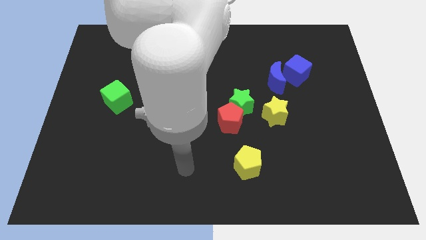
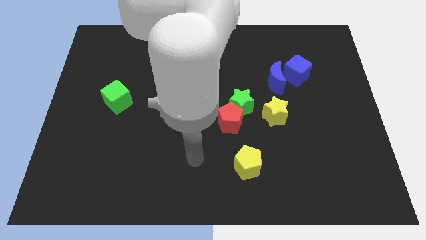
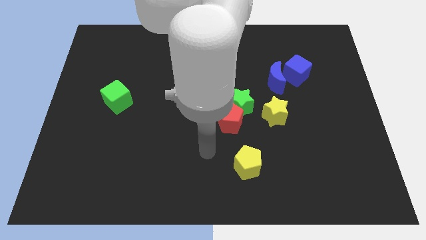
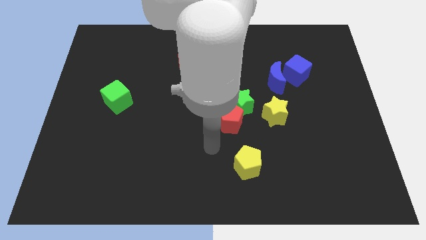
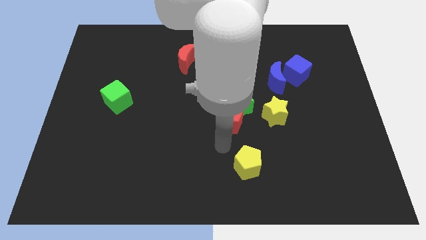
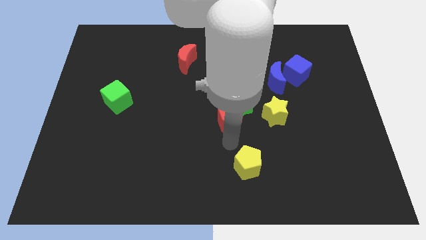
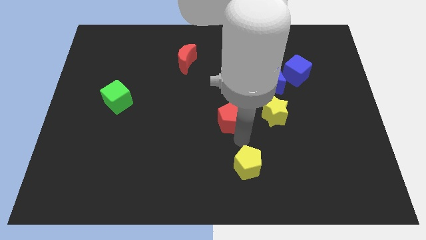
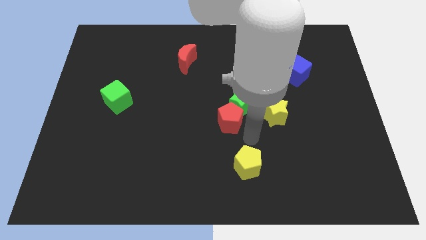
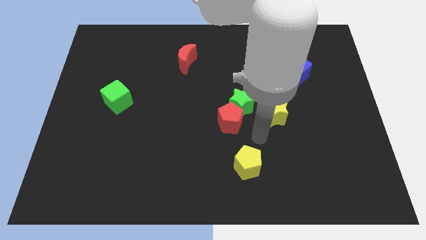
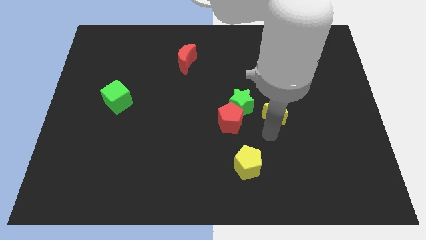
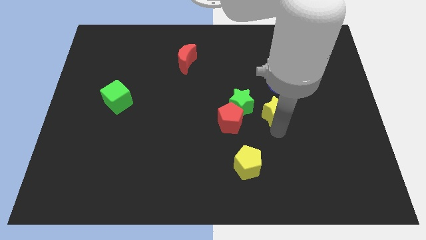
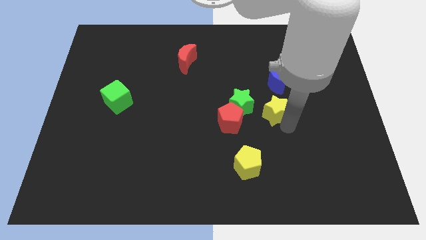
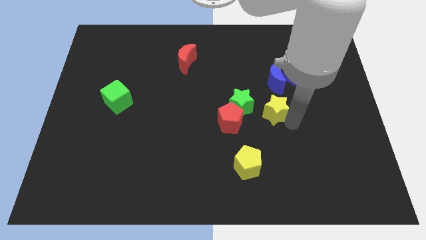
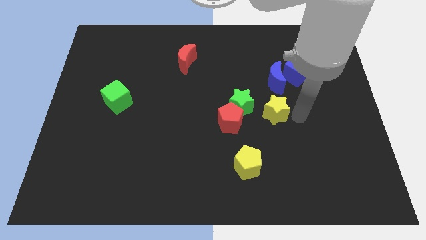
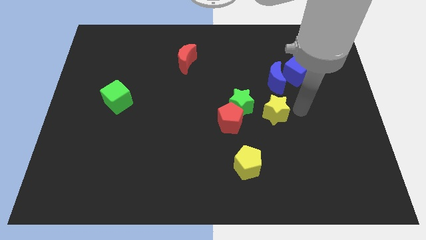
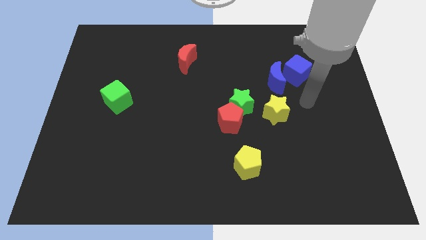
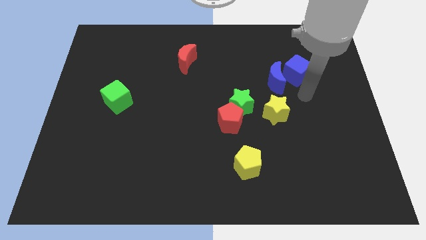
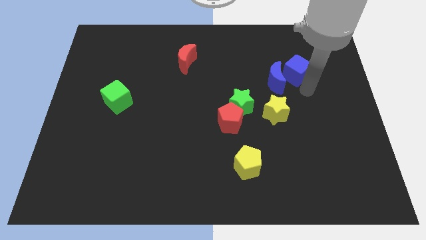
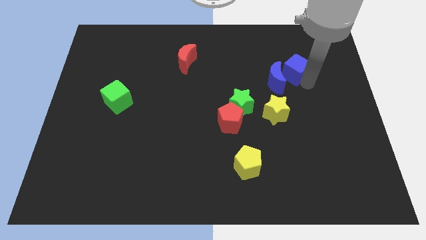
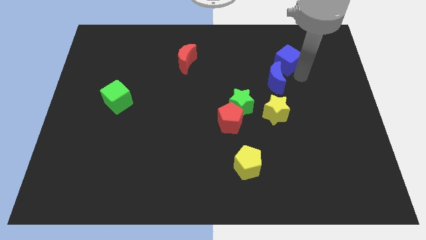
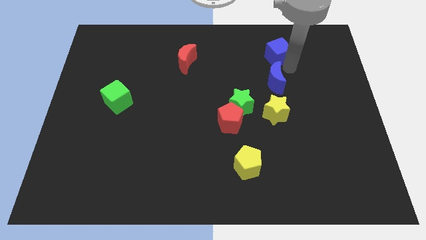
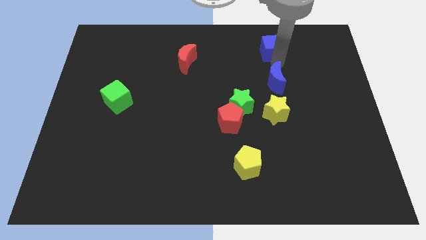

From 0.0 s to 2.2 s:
move the blue moon away from the blue cube

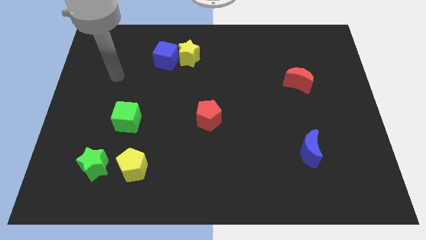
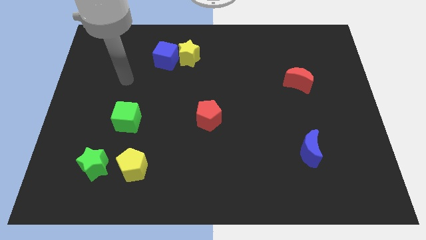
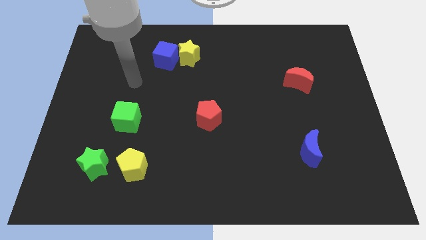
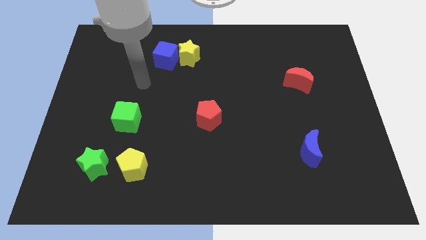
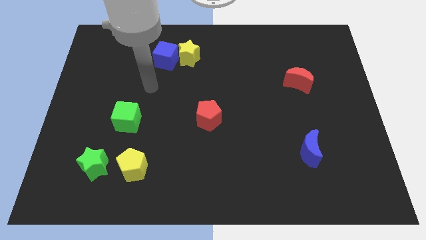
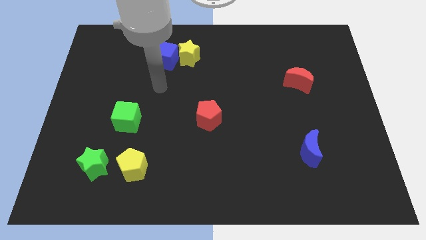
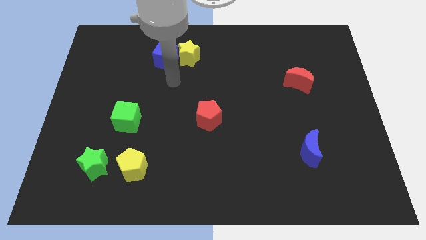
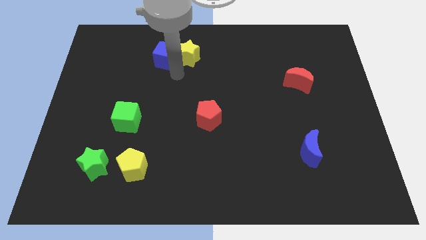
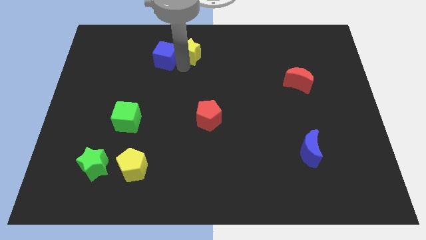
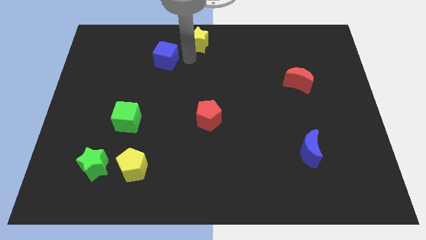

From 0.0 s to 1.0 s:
pull the blue cube apart from the yellow star

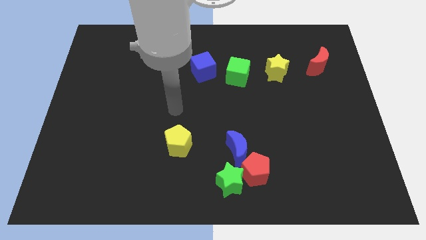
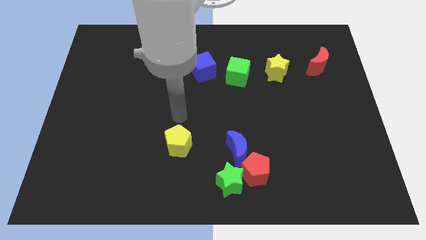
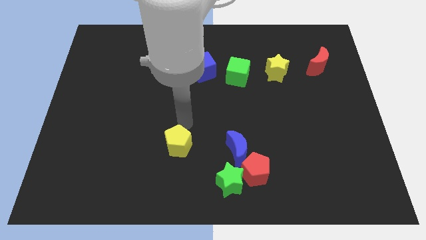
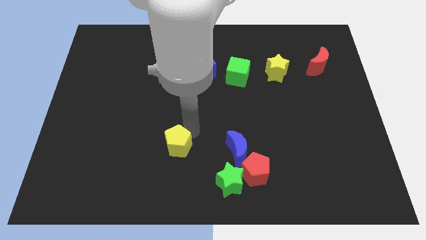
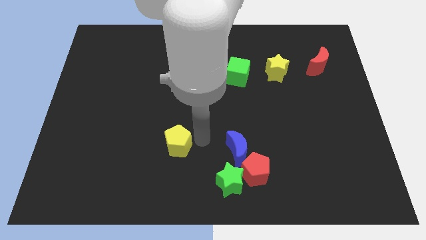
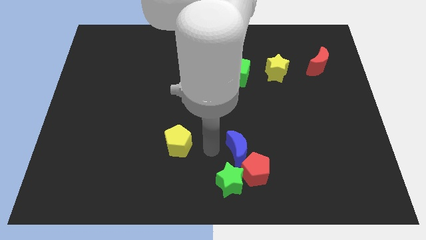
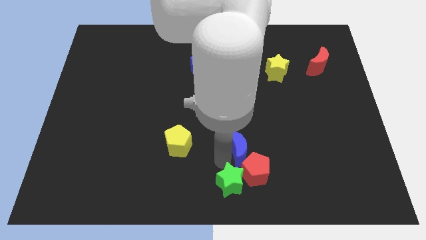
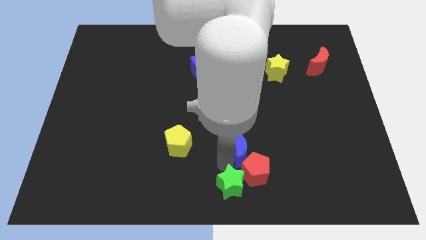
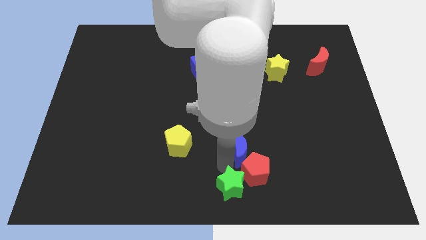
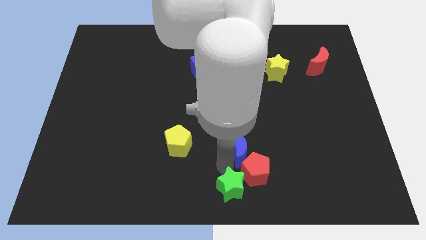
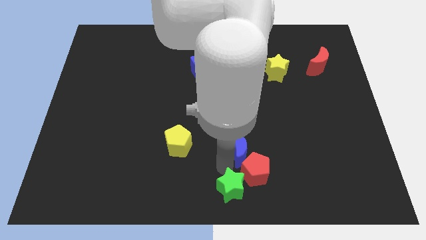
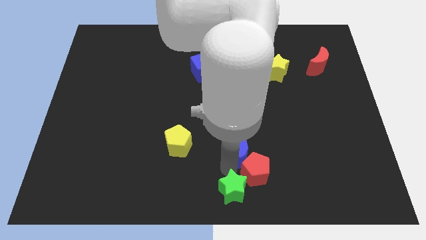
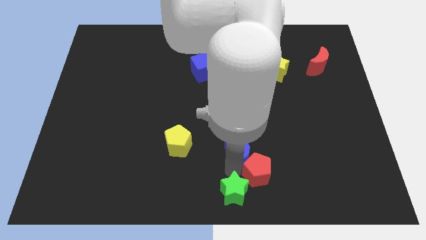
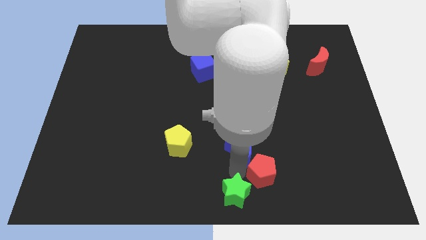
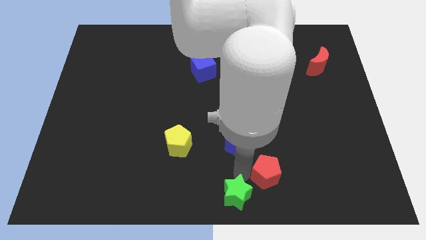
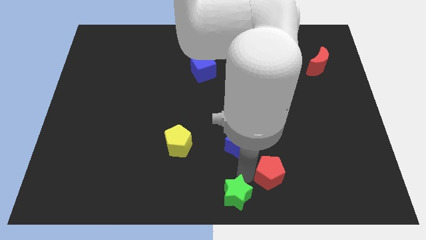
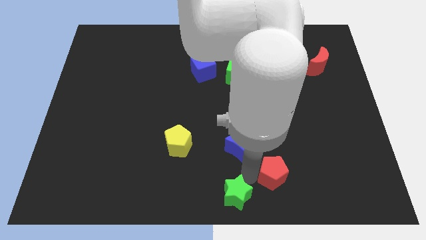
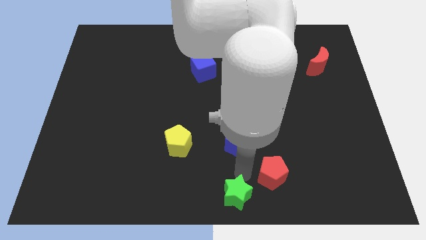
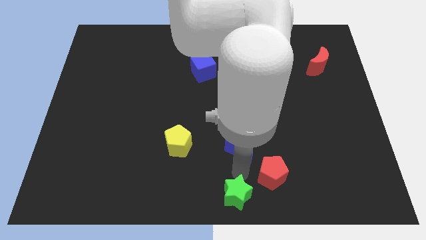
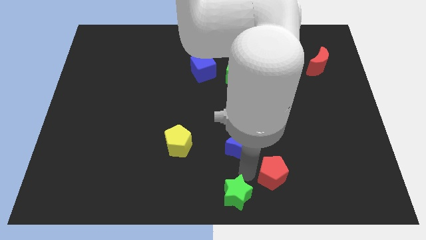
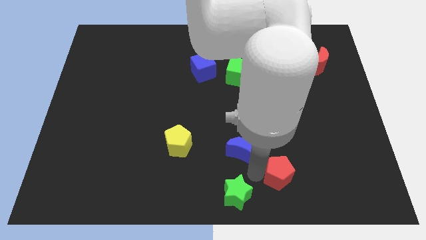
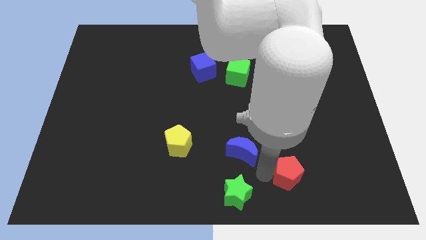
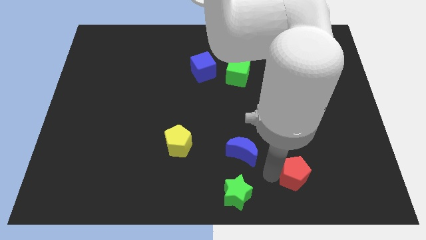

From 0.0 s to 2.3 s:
move the red pentagon away from the blue moon and green star

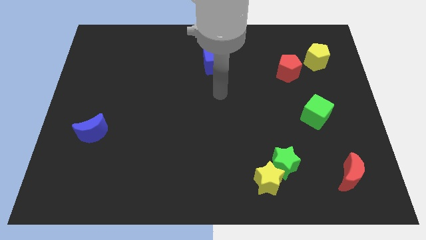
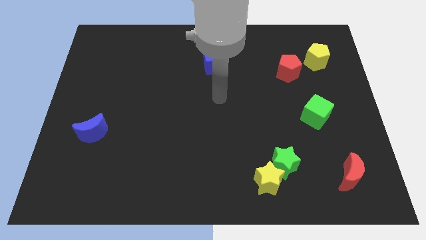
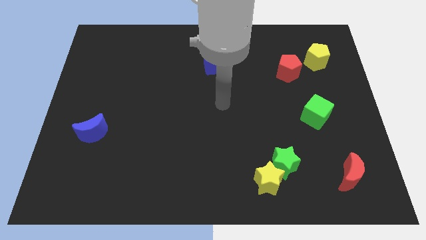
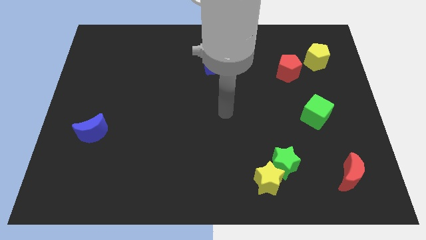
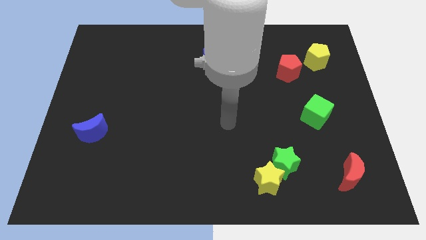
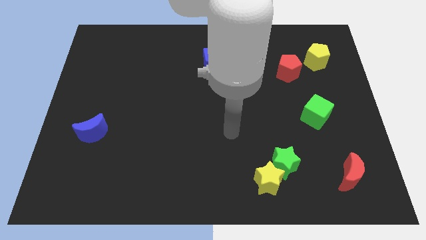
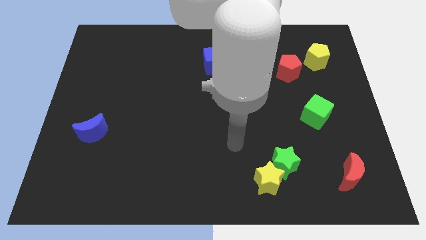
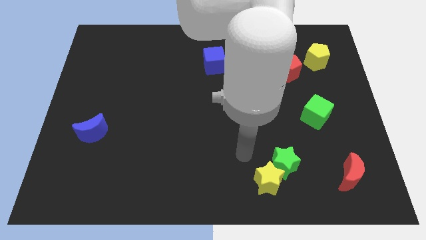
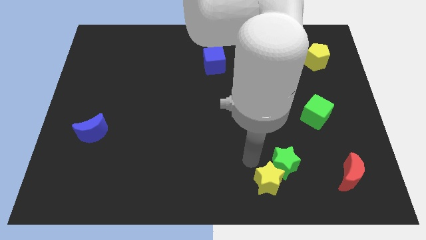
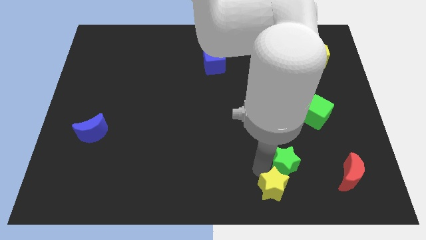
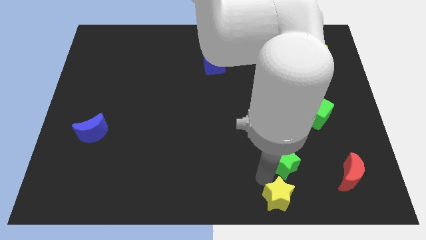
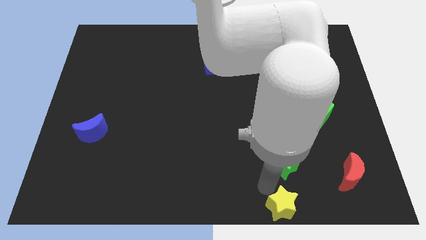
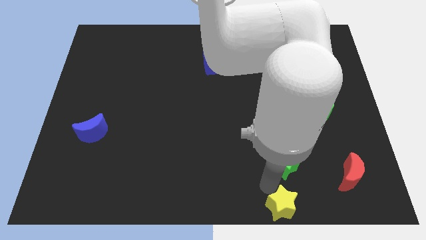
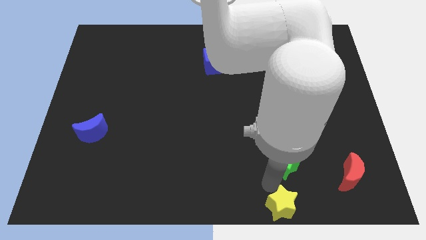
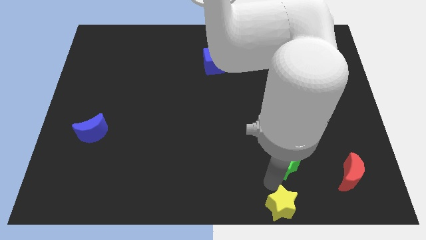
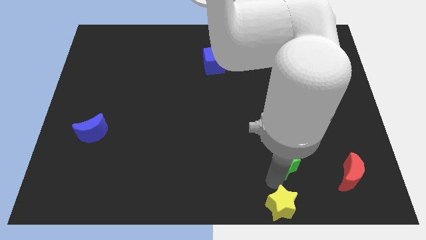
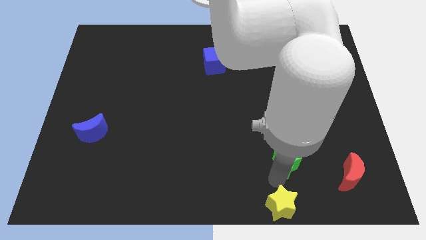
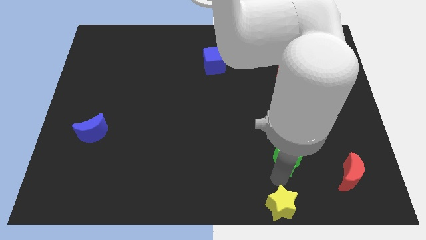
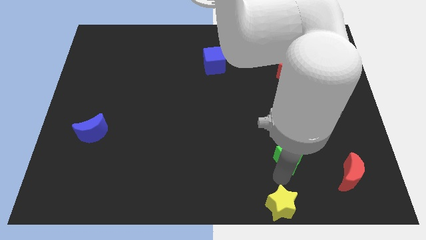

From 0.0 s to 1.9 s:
pull the green star apart from the yellow star

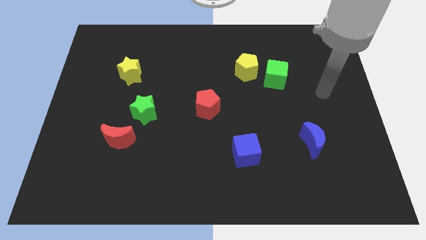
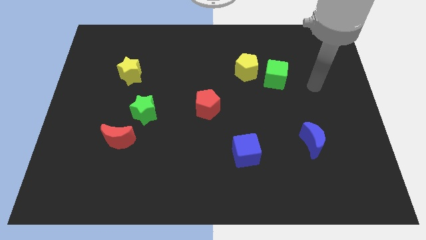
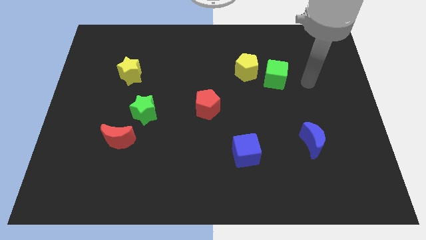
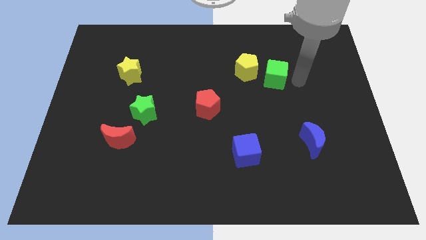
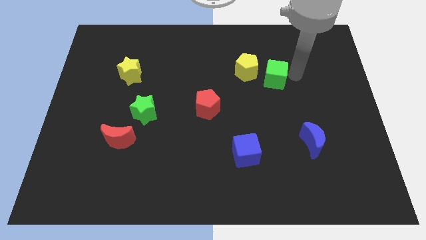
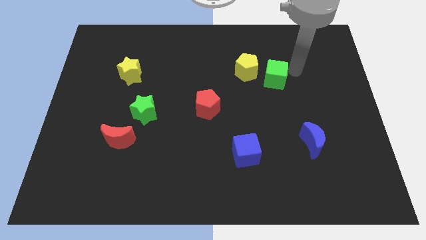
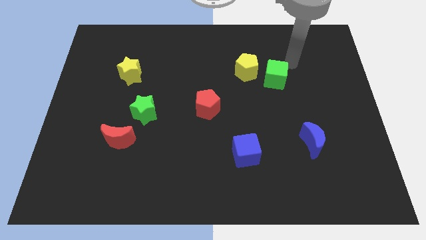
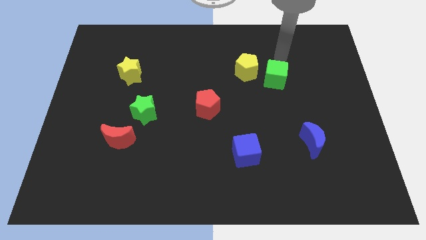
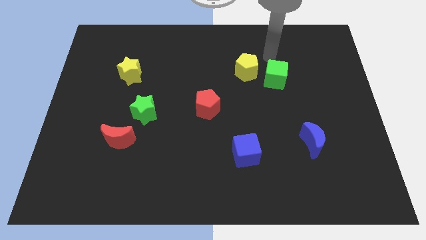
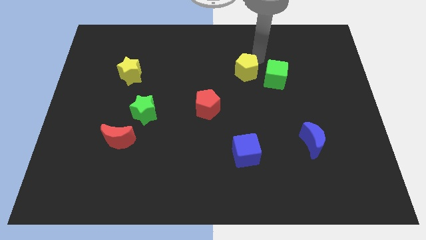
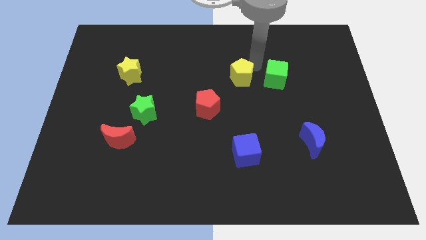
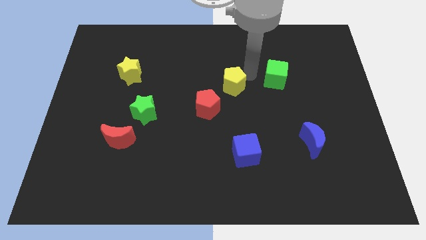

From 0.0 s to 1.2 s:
separate the green cube from the yellow pentagon

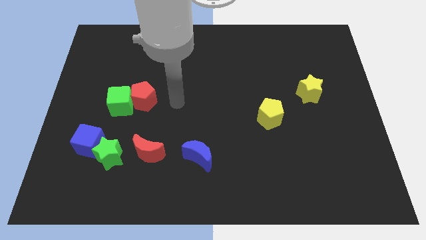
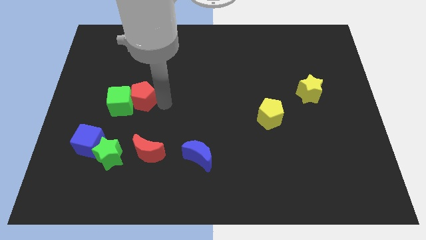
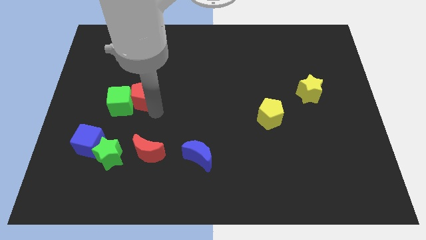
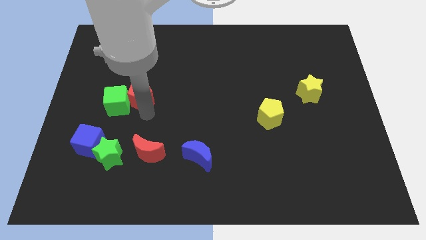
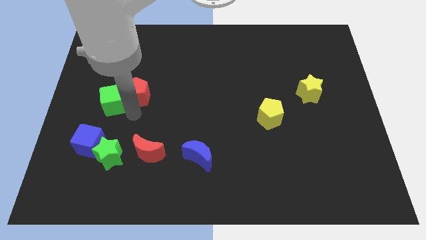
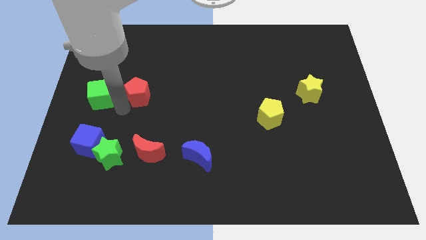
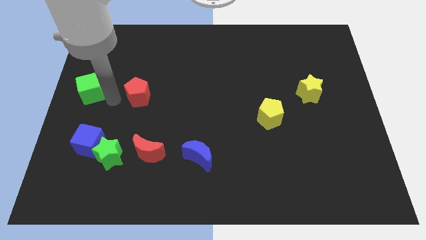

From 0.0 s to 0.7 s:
separate the red pentagon from the green cube
